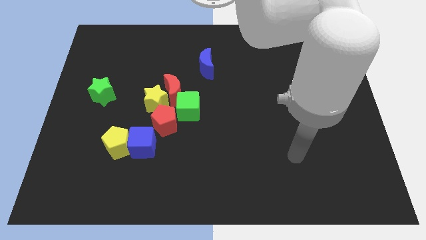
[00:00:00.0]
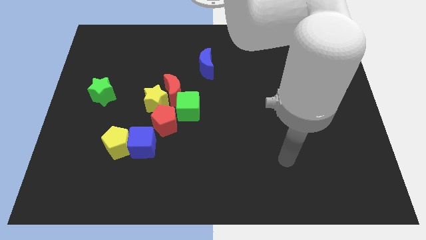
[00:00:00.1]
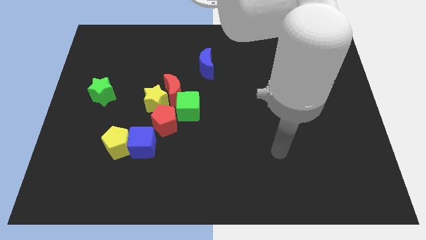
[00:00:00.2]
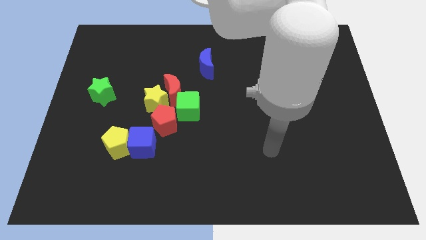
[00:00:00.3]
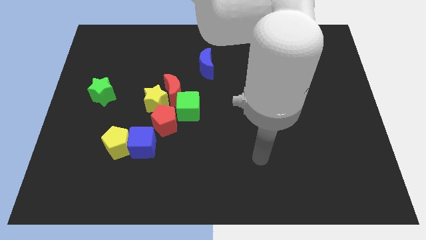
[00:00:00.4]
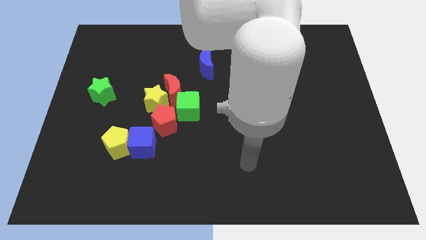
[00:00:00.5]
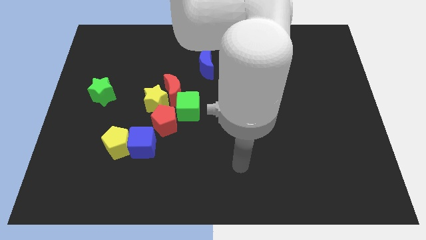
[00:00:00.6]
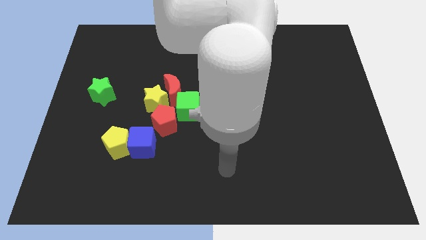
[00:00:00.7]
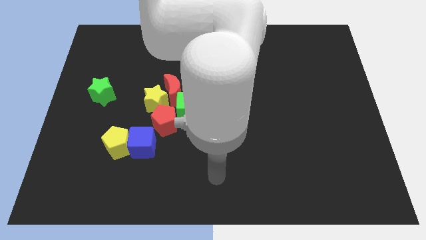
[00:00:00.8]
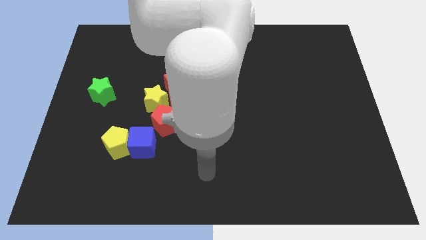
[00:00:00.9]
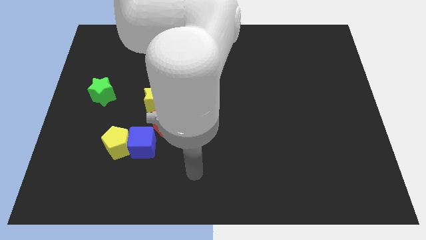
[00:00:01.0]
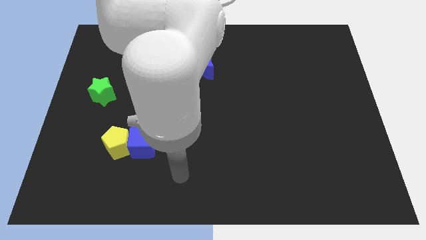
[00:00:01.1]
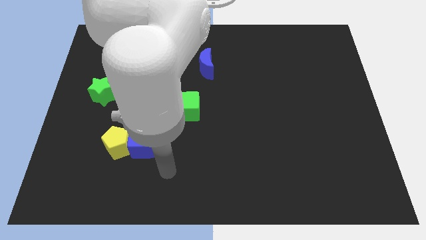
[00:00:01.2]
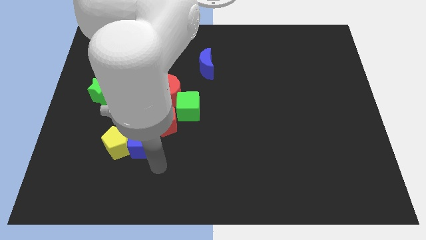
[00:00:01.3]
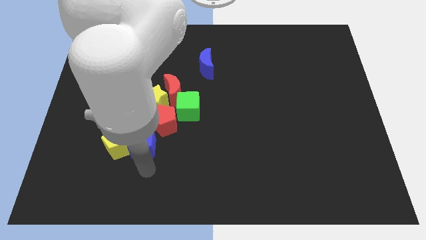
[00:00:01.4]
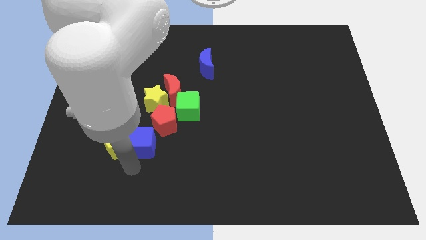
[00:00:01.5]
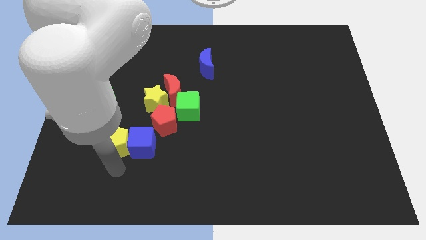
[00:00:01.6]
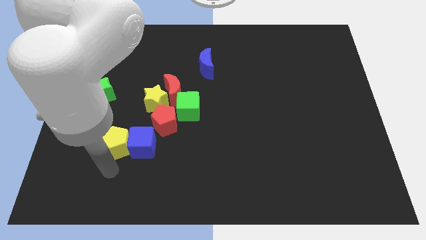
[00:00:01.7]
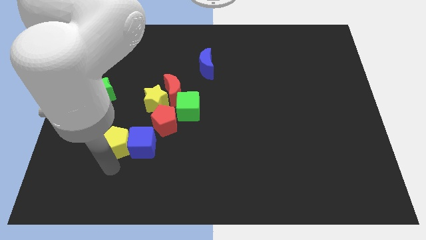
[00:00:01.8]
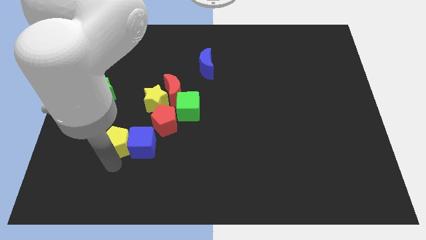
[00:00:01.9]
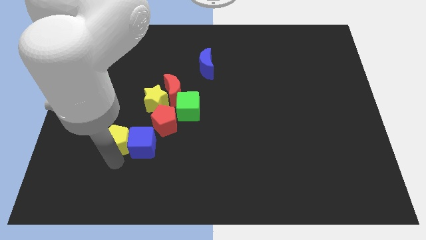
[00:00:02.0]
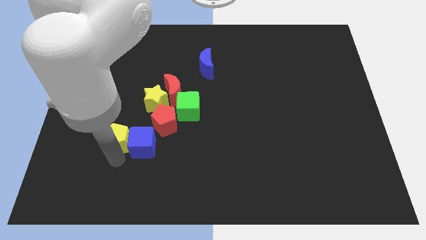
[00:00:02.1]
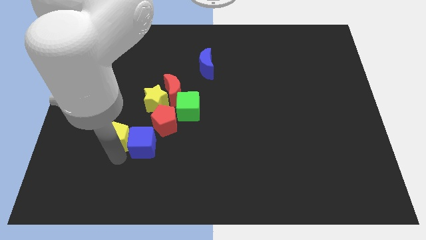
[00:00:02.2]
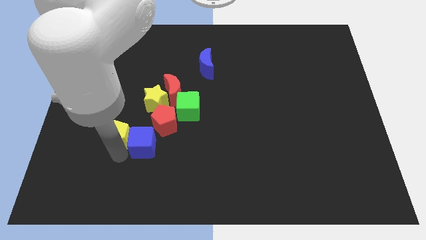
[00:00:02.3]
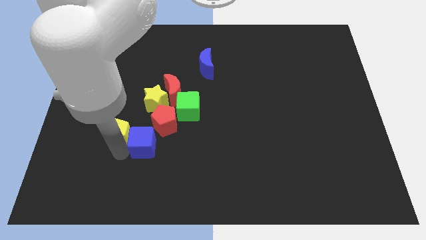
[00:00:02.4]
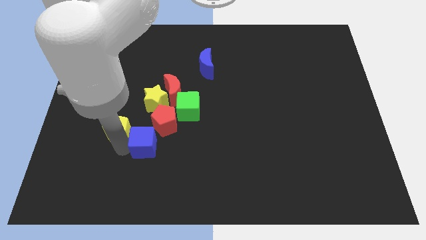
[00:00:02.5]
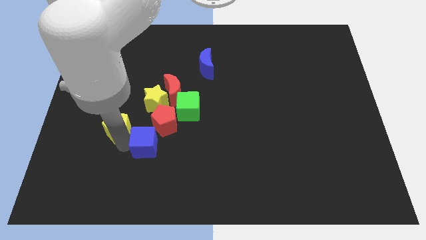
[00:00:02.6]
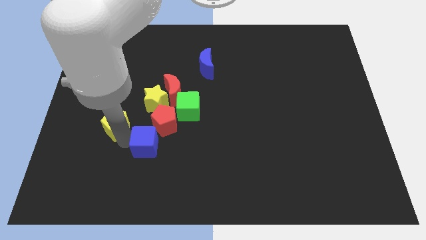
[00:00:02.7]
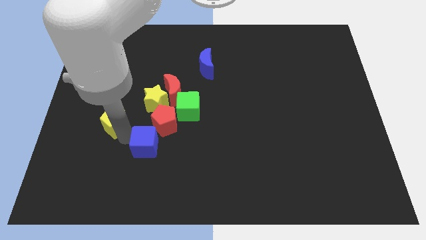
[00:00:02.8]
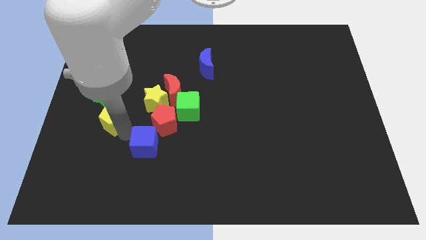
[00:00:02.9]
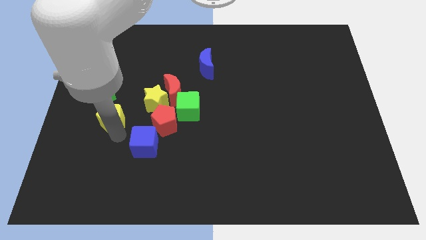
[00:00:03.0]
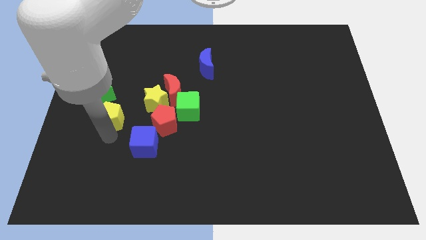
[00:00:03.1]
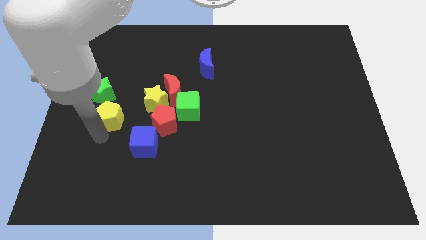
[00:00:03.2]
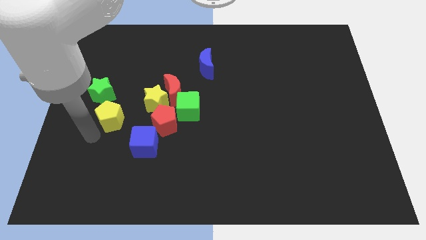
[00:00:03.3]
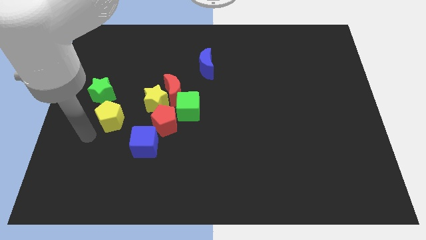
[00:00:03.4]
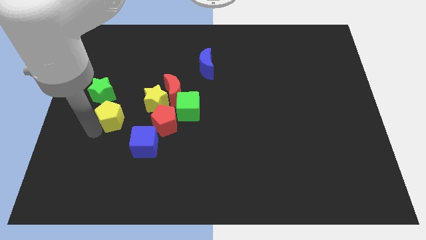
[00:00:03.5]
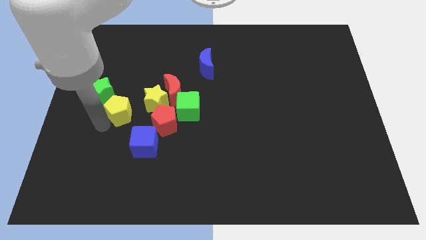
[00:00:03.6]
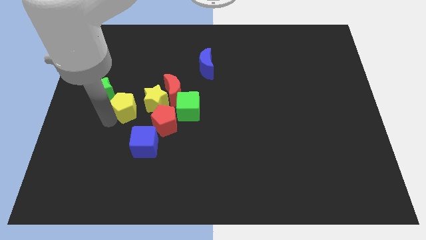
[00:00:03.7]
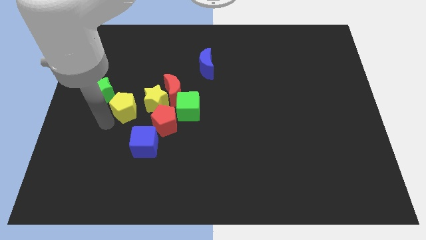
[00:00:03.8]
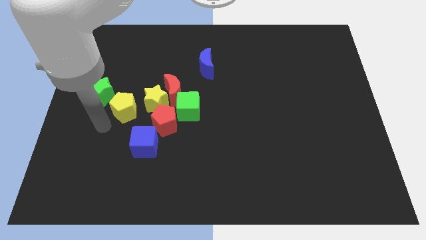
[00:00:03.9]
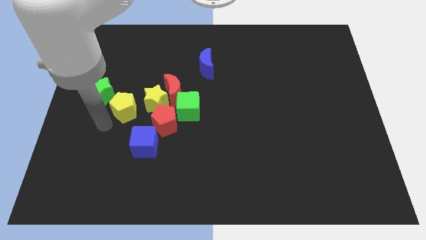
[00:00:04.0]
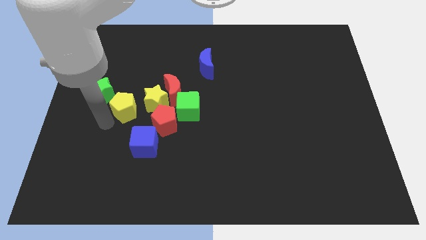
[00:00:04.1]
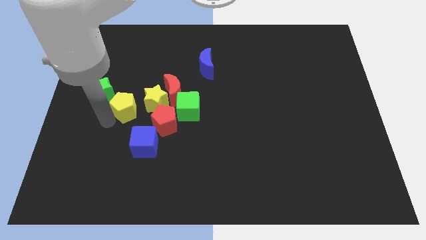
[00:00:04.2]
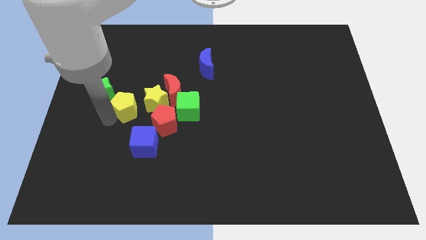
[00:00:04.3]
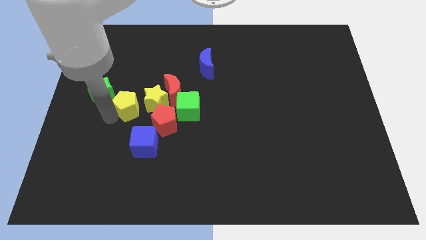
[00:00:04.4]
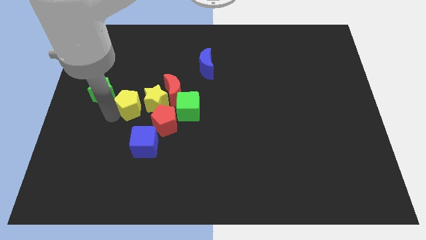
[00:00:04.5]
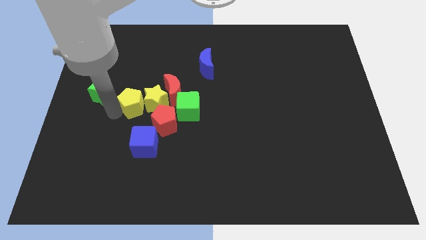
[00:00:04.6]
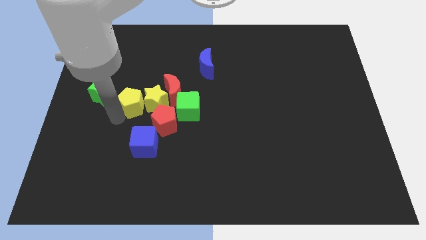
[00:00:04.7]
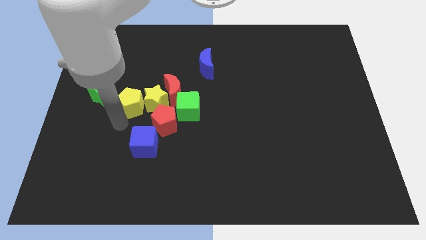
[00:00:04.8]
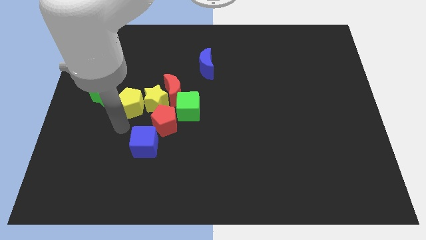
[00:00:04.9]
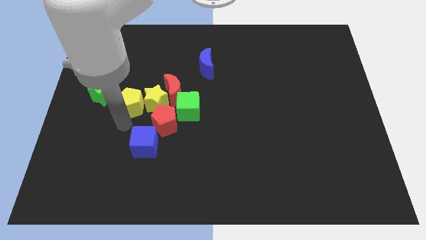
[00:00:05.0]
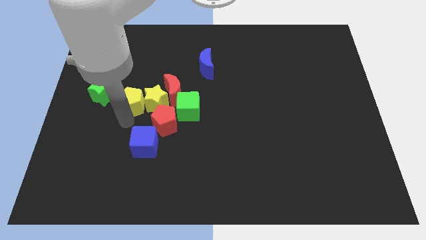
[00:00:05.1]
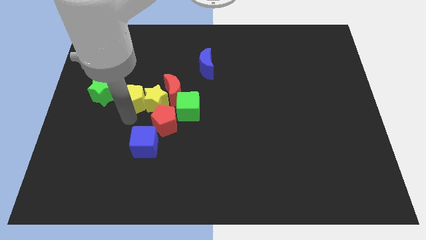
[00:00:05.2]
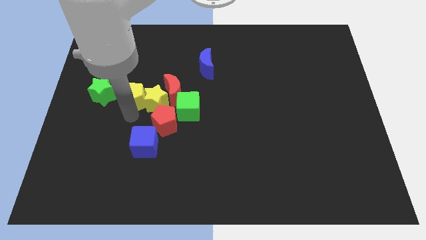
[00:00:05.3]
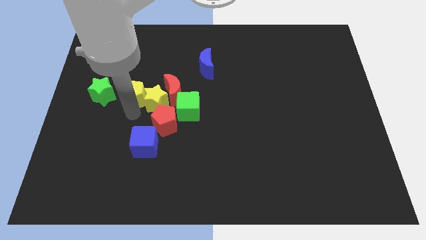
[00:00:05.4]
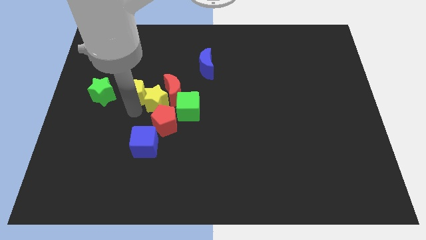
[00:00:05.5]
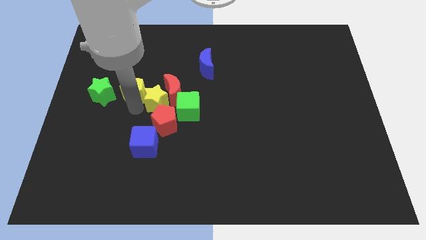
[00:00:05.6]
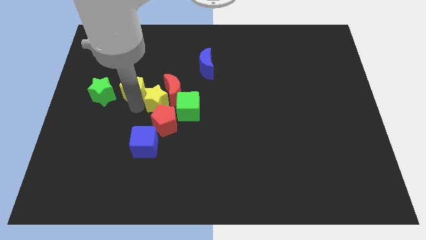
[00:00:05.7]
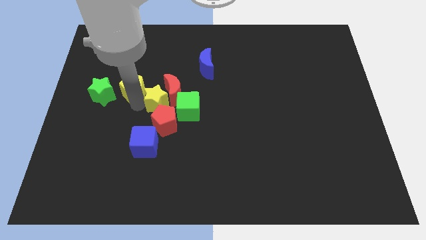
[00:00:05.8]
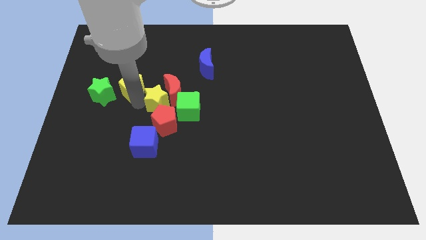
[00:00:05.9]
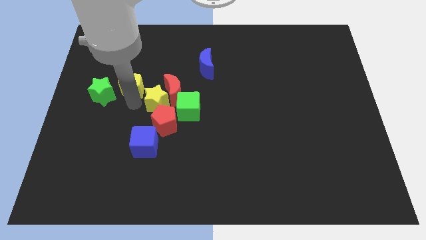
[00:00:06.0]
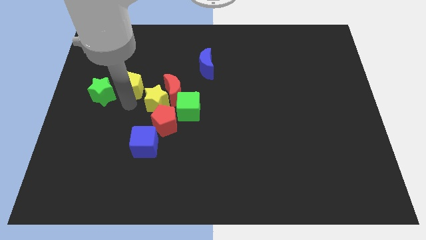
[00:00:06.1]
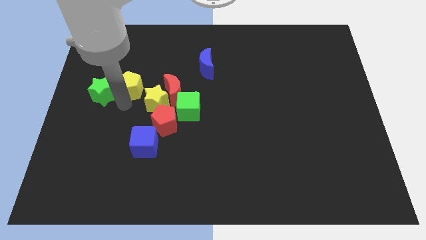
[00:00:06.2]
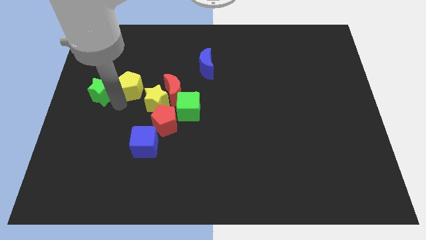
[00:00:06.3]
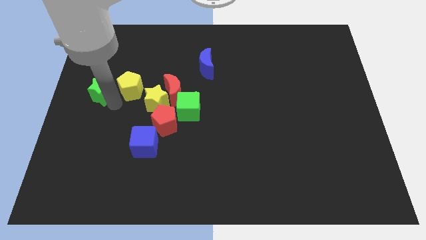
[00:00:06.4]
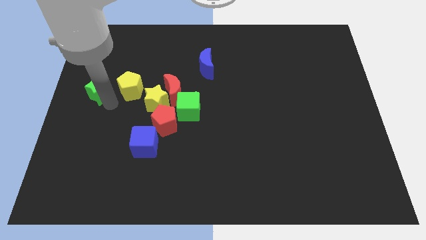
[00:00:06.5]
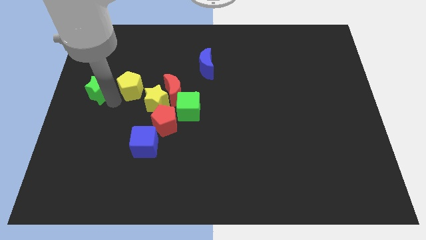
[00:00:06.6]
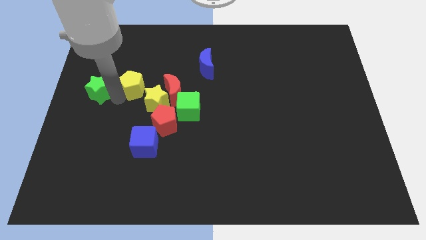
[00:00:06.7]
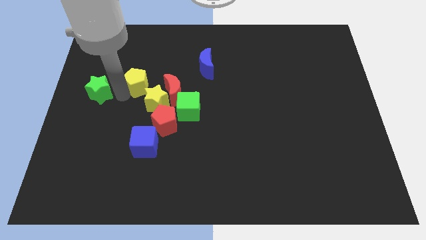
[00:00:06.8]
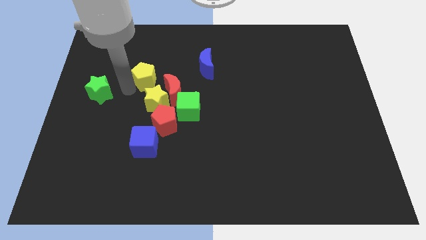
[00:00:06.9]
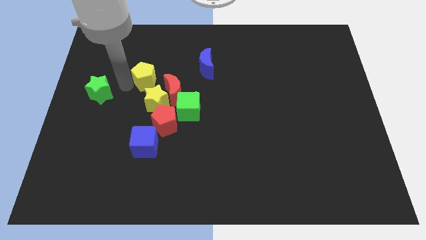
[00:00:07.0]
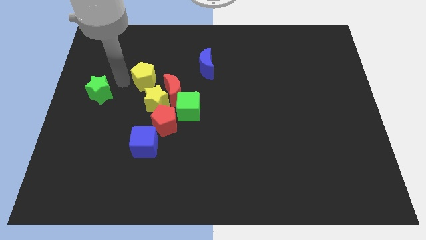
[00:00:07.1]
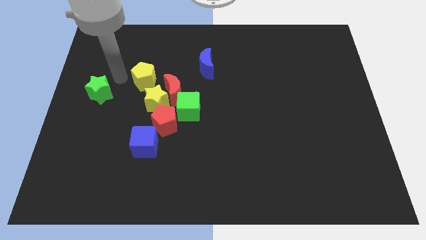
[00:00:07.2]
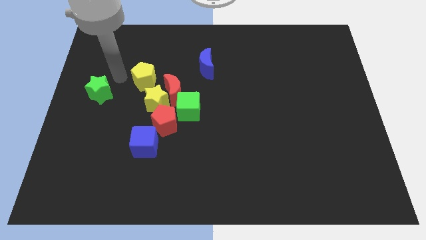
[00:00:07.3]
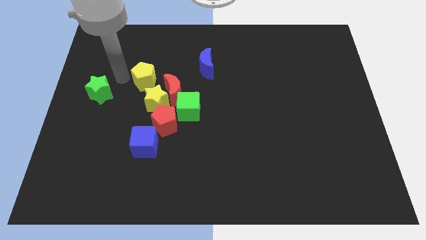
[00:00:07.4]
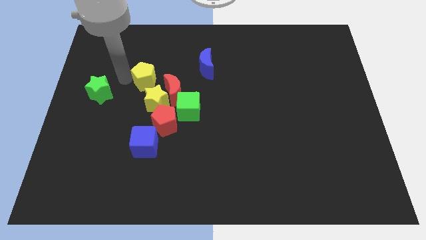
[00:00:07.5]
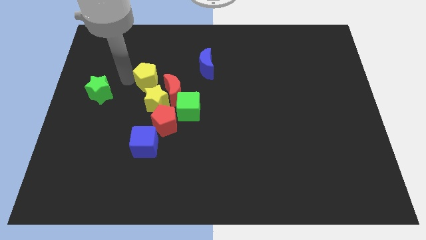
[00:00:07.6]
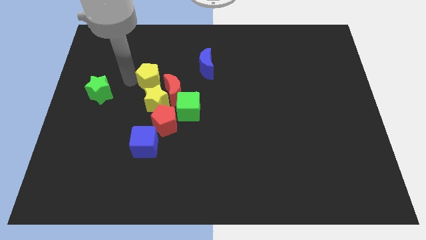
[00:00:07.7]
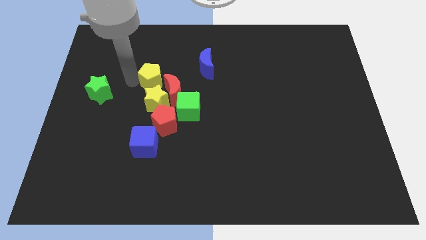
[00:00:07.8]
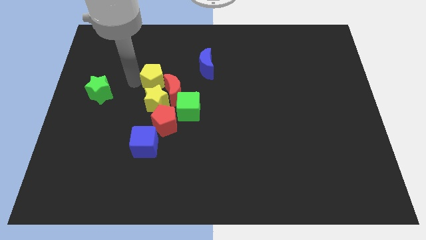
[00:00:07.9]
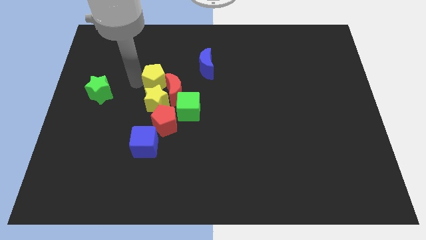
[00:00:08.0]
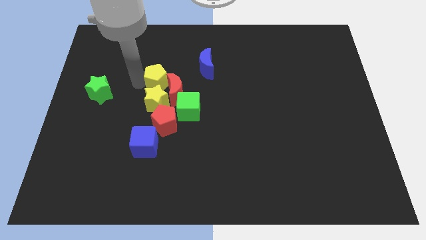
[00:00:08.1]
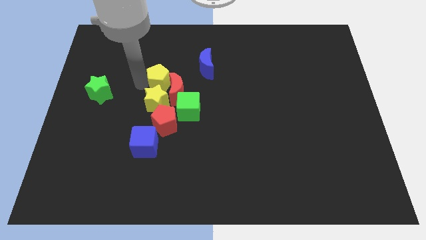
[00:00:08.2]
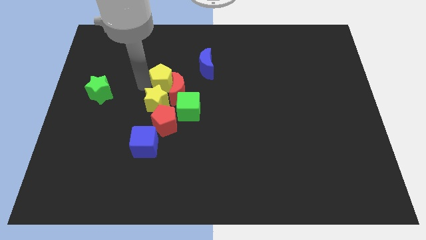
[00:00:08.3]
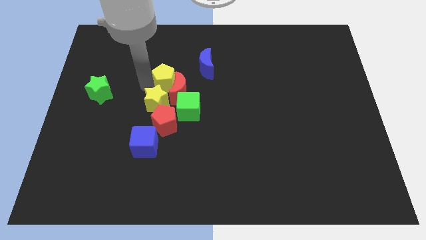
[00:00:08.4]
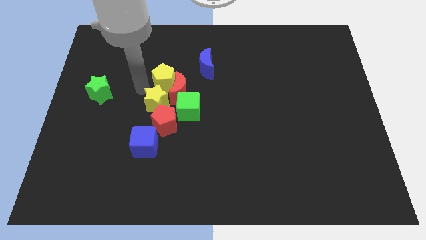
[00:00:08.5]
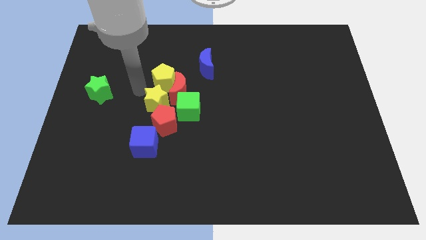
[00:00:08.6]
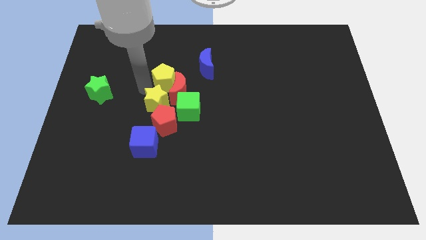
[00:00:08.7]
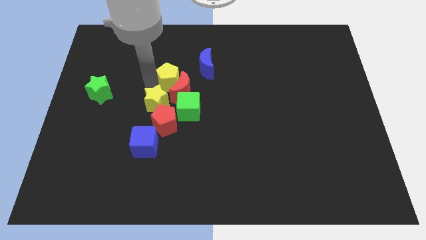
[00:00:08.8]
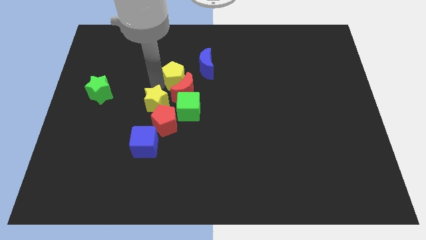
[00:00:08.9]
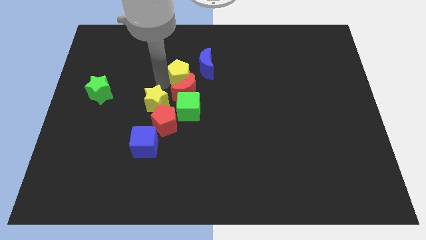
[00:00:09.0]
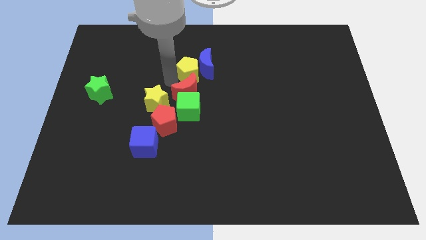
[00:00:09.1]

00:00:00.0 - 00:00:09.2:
move the yellow pentagon towards the blue moon
